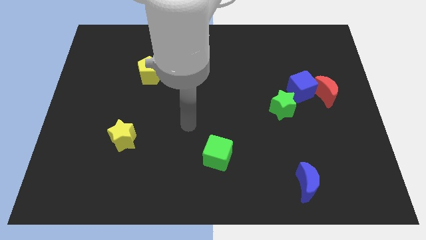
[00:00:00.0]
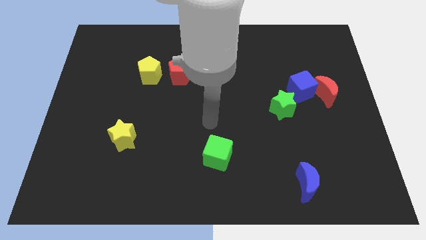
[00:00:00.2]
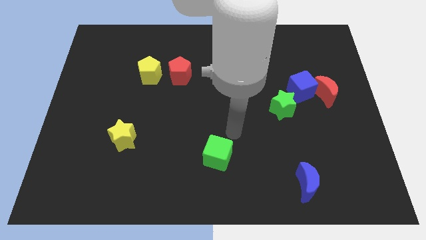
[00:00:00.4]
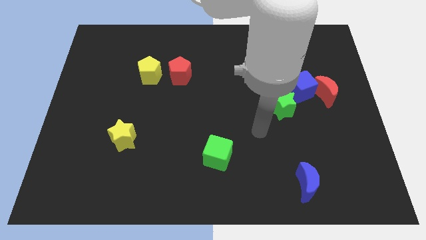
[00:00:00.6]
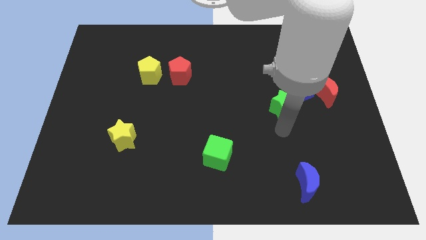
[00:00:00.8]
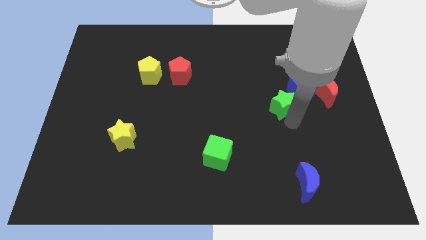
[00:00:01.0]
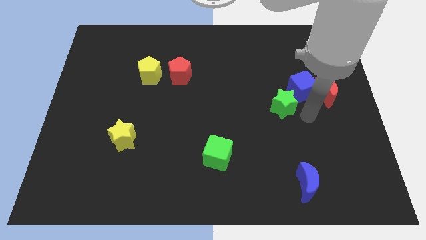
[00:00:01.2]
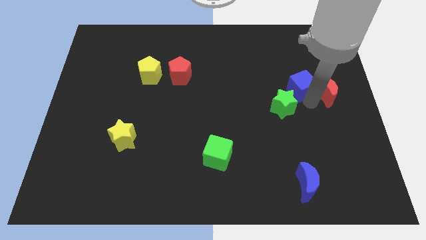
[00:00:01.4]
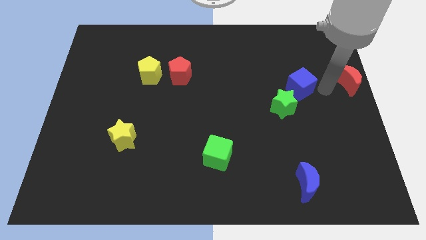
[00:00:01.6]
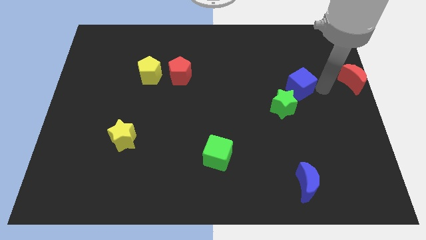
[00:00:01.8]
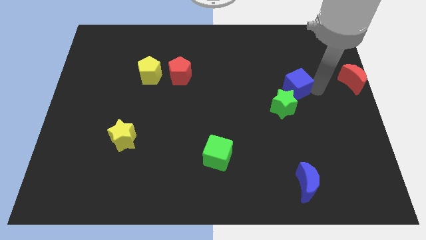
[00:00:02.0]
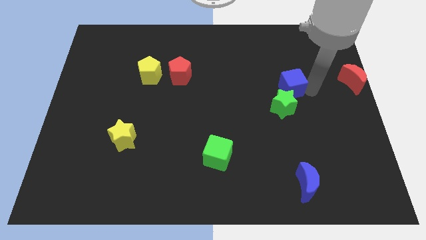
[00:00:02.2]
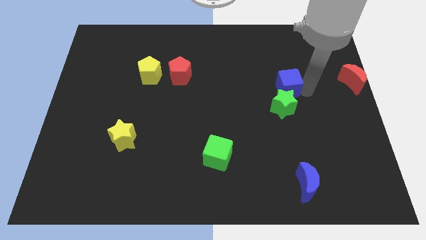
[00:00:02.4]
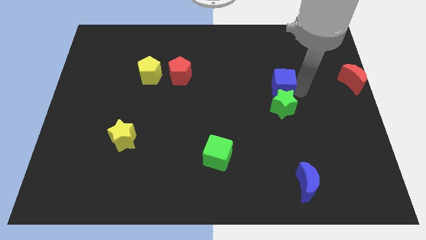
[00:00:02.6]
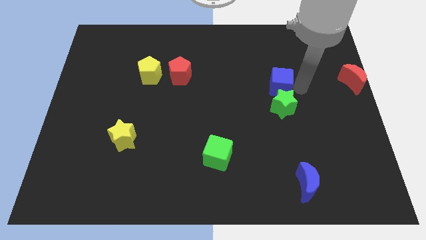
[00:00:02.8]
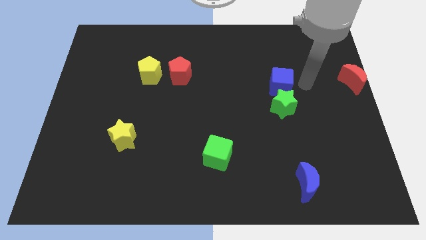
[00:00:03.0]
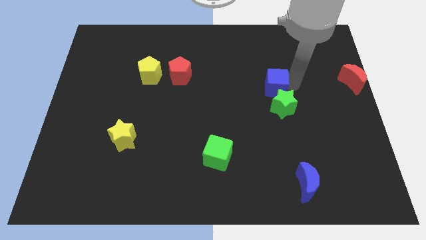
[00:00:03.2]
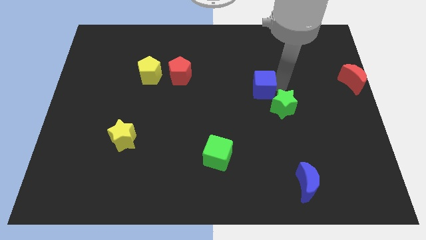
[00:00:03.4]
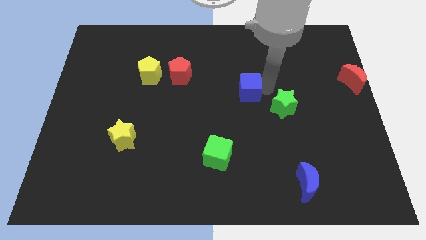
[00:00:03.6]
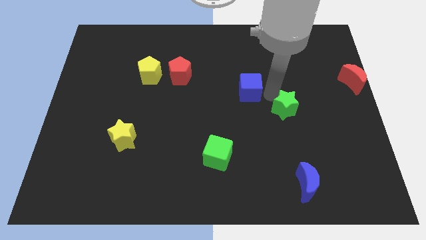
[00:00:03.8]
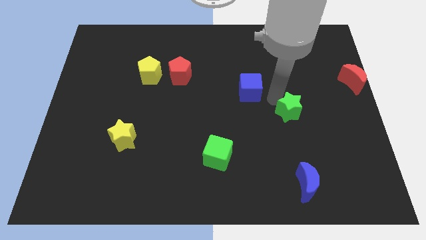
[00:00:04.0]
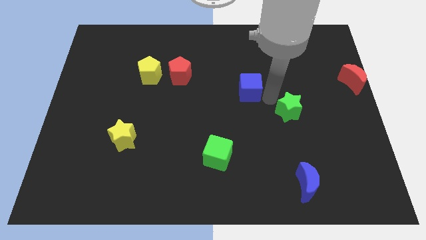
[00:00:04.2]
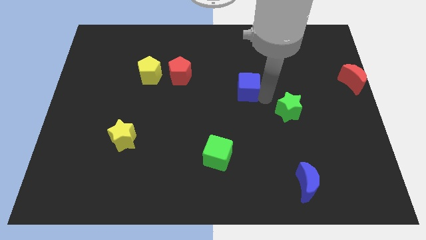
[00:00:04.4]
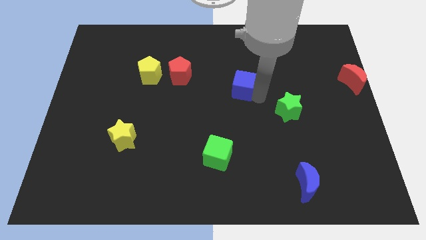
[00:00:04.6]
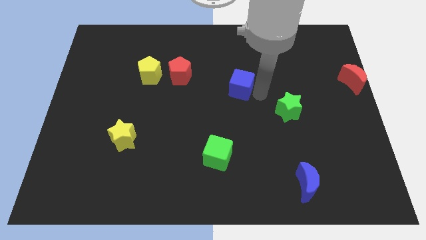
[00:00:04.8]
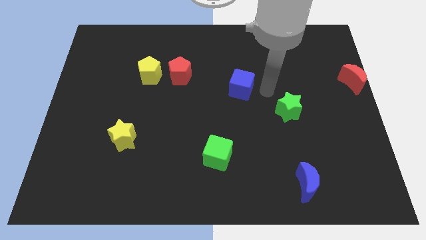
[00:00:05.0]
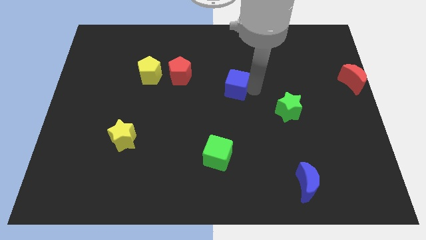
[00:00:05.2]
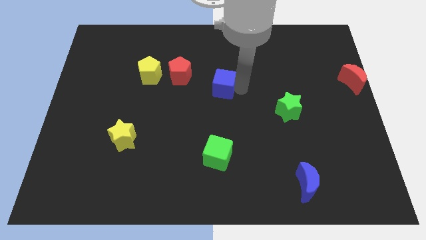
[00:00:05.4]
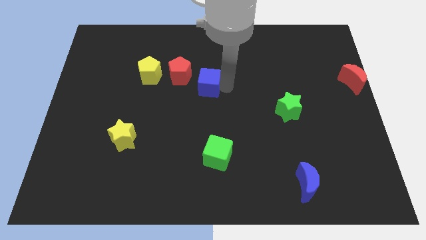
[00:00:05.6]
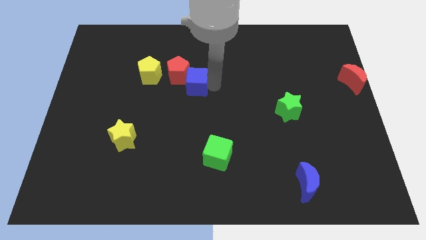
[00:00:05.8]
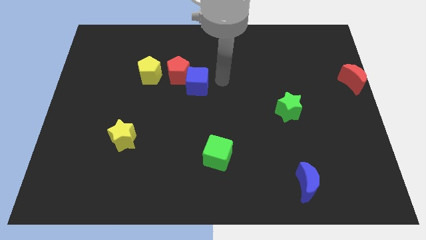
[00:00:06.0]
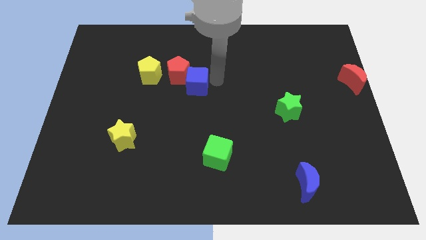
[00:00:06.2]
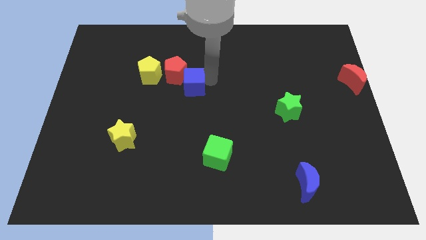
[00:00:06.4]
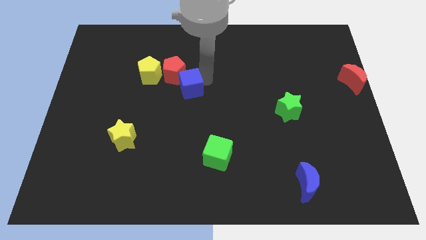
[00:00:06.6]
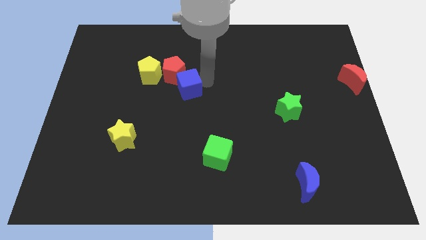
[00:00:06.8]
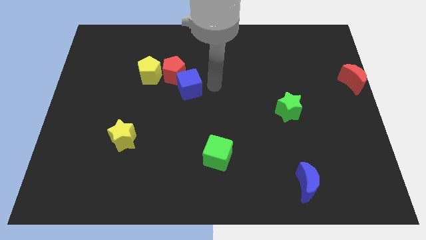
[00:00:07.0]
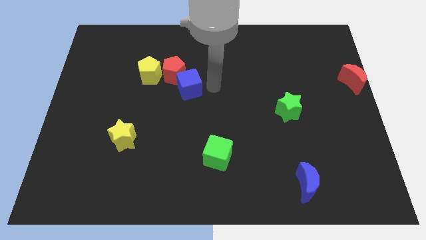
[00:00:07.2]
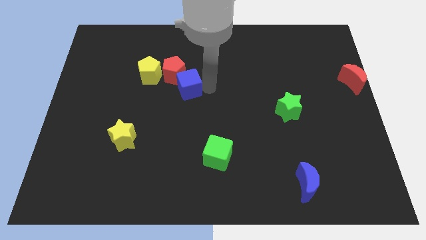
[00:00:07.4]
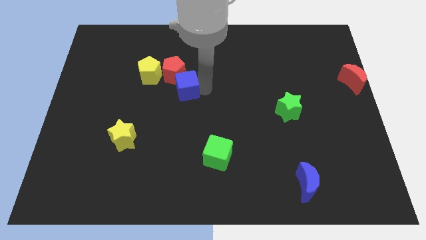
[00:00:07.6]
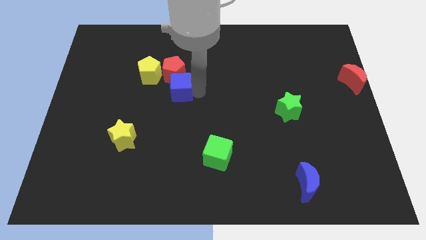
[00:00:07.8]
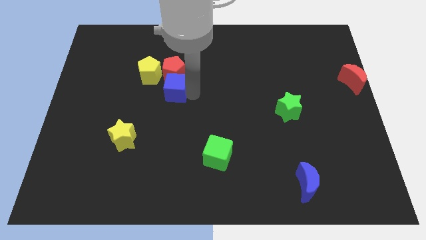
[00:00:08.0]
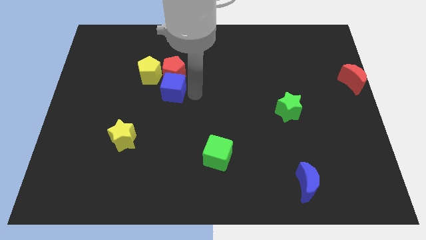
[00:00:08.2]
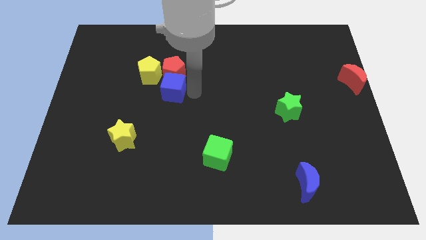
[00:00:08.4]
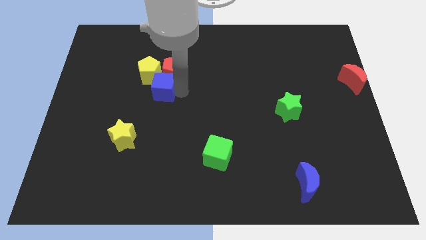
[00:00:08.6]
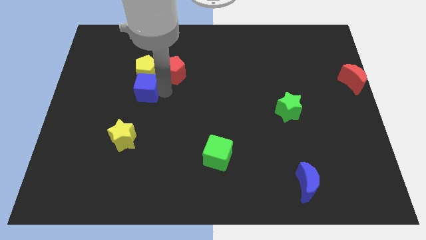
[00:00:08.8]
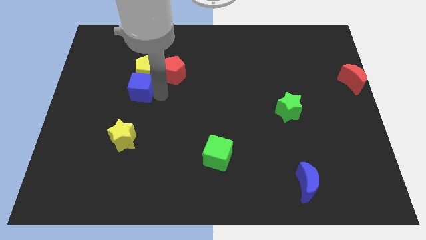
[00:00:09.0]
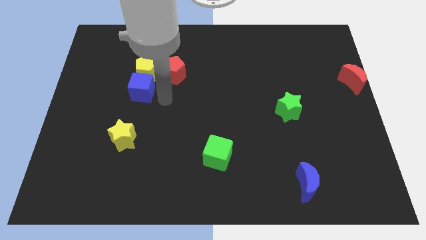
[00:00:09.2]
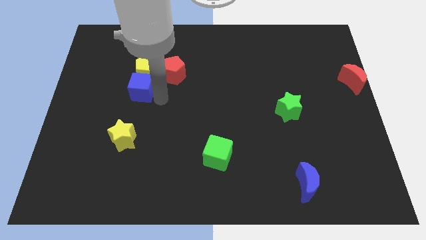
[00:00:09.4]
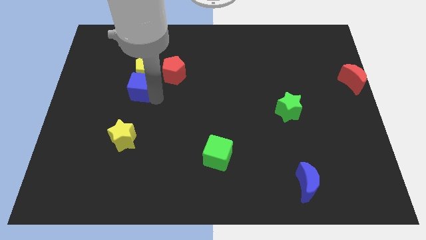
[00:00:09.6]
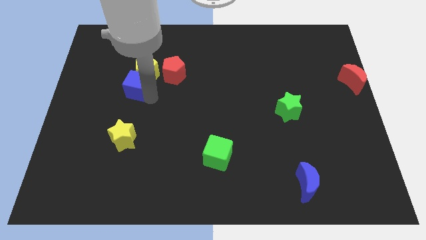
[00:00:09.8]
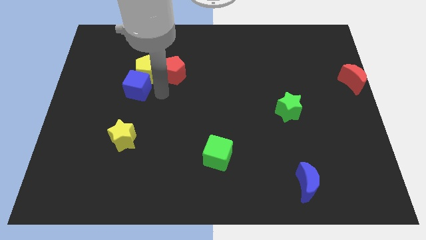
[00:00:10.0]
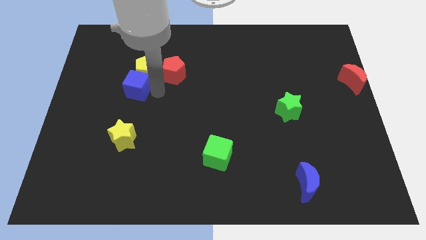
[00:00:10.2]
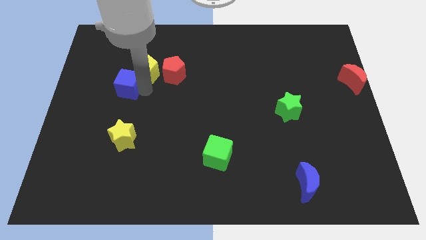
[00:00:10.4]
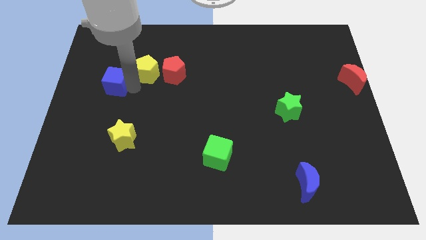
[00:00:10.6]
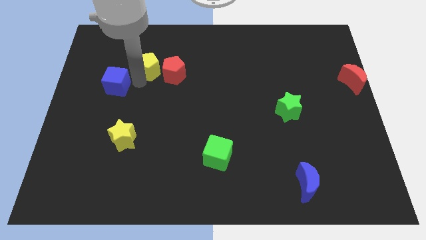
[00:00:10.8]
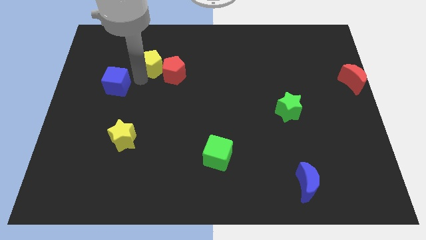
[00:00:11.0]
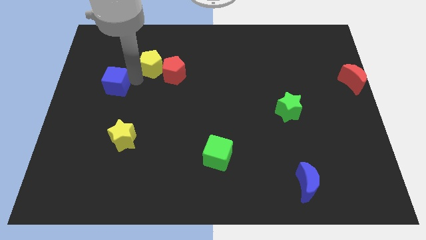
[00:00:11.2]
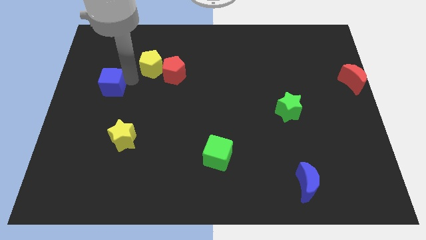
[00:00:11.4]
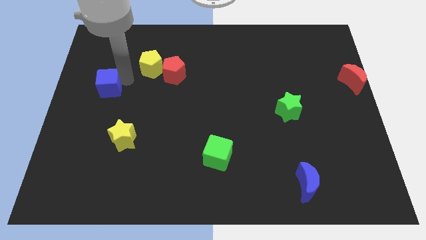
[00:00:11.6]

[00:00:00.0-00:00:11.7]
move the blue cube to the center left
